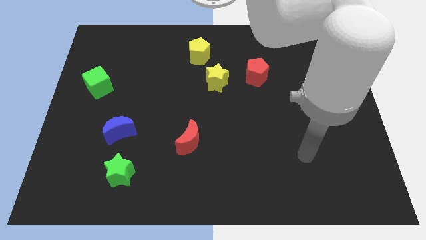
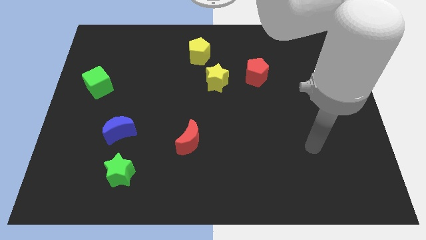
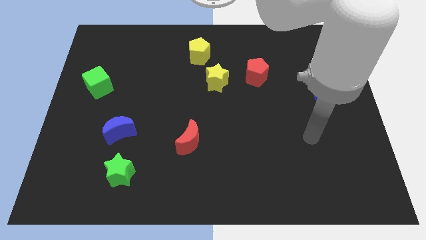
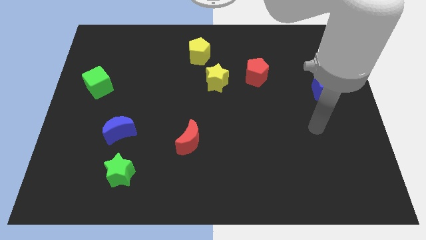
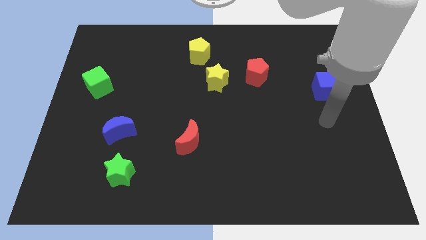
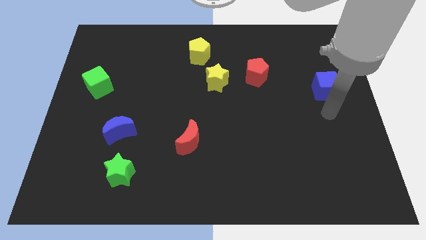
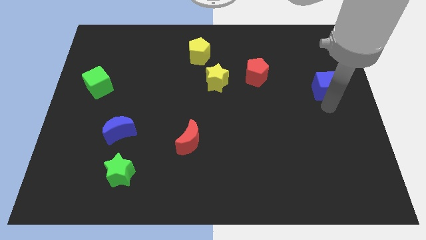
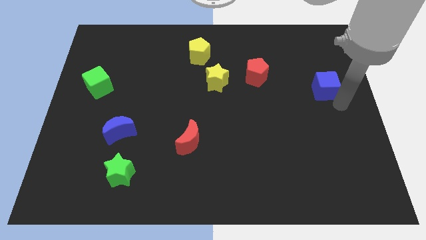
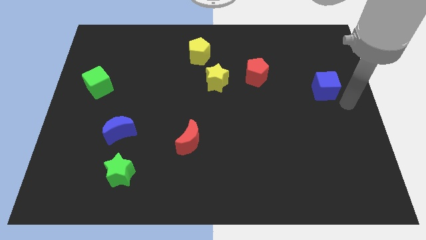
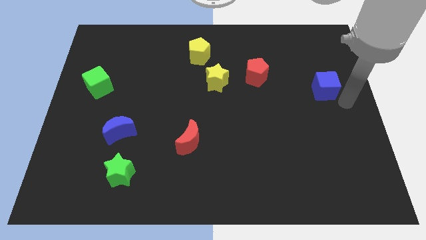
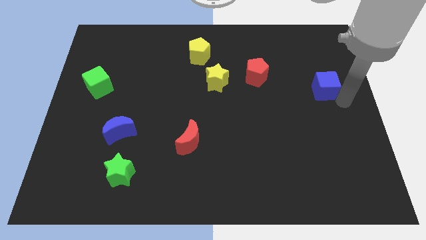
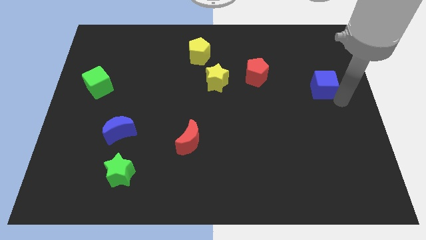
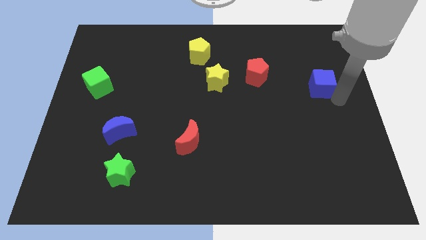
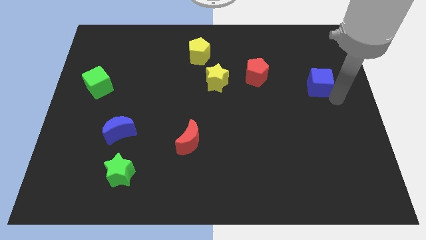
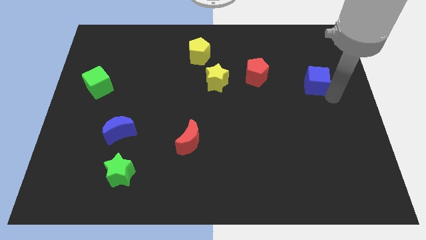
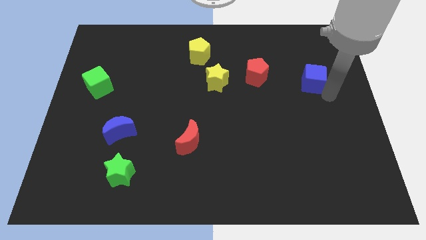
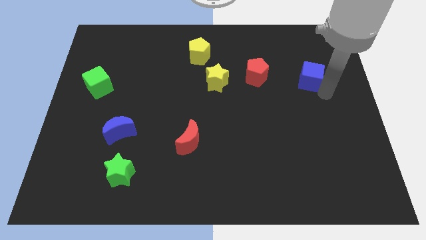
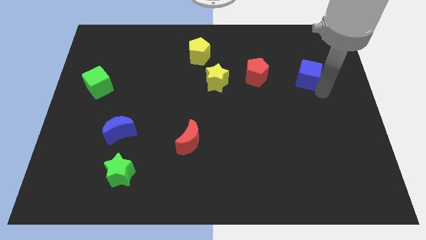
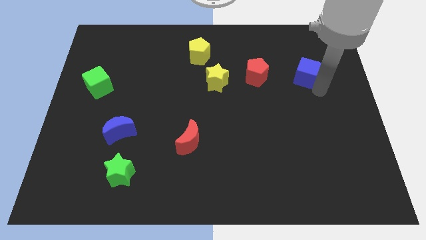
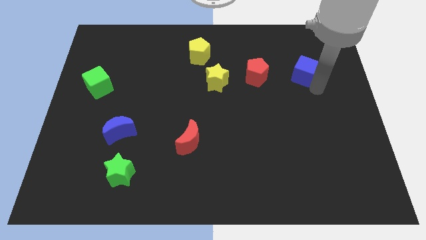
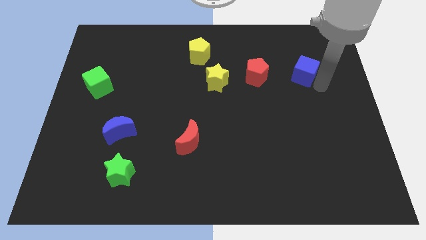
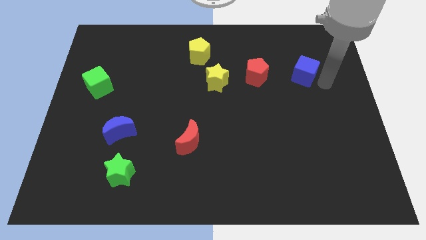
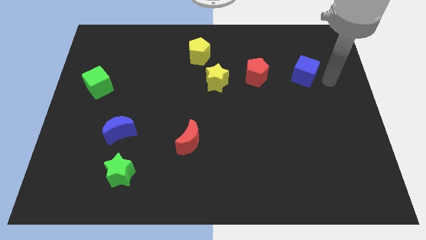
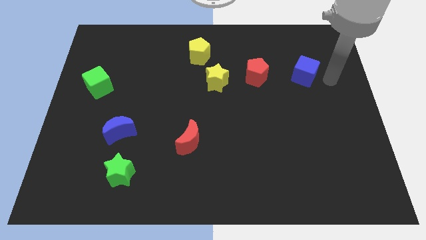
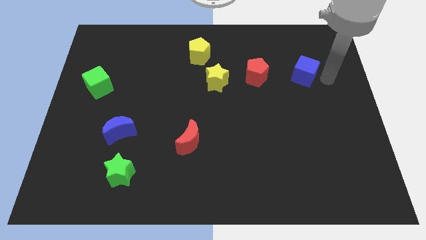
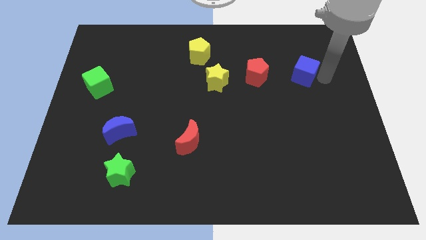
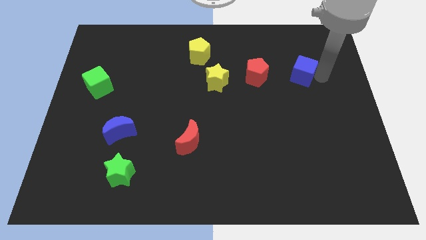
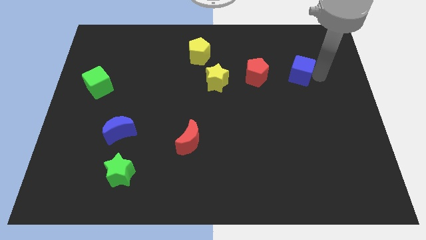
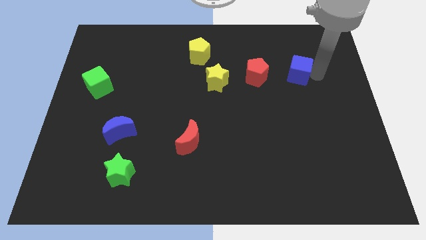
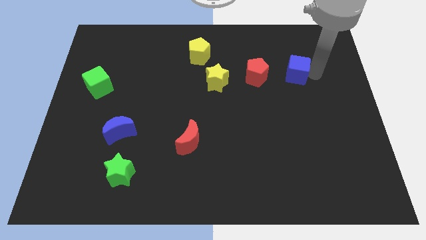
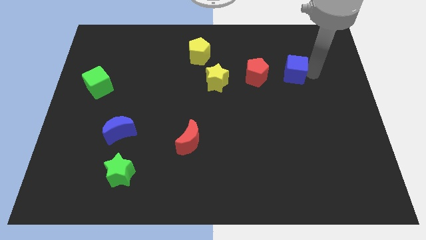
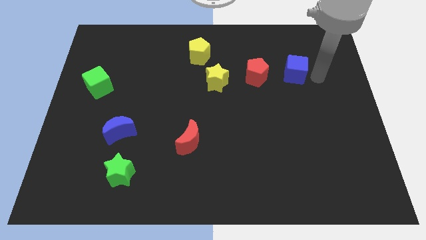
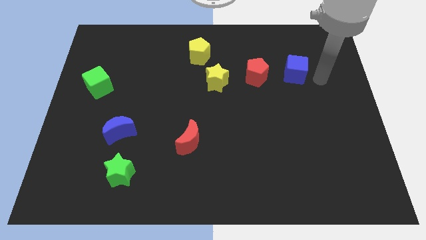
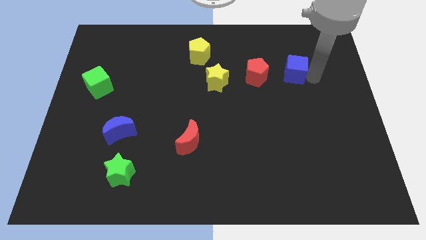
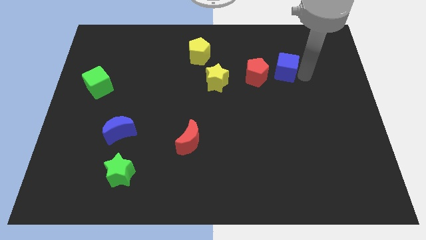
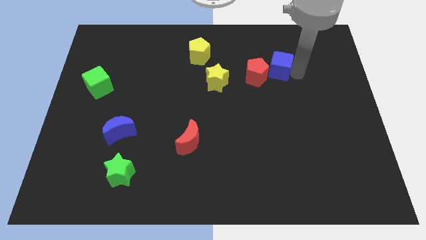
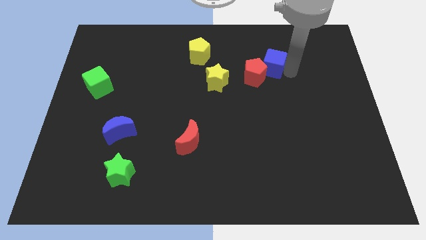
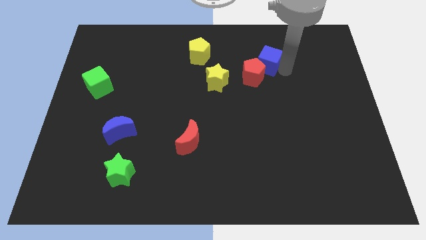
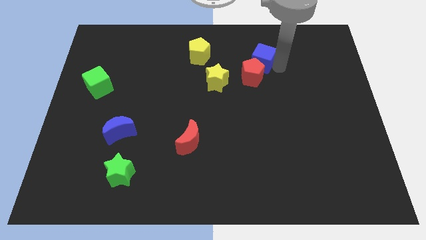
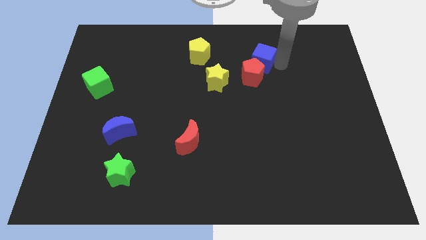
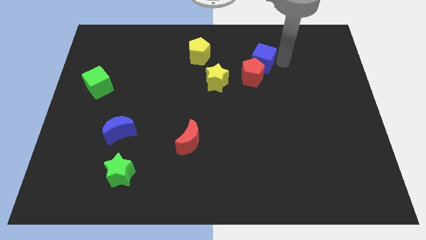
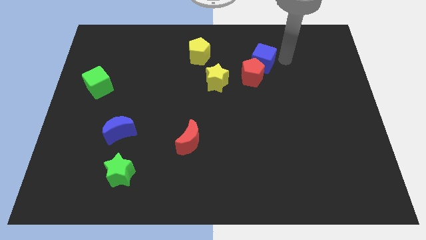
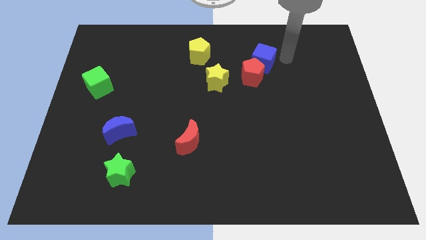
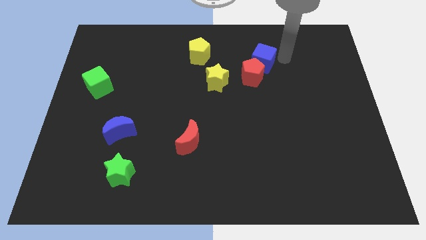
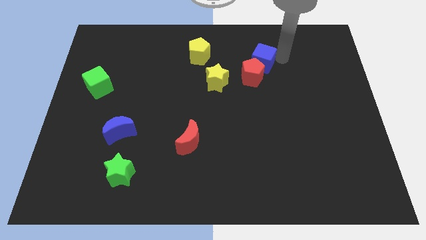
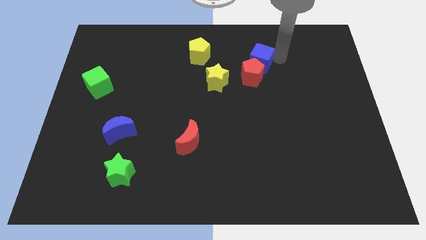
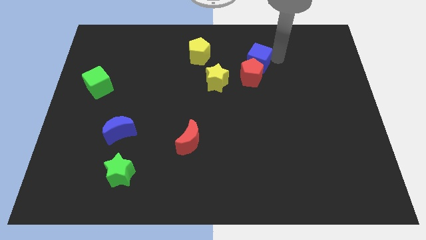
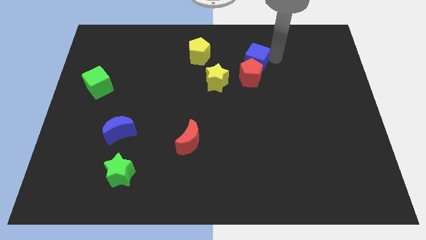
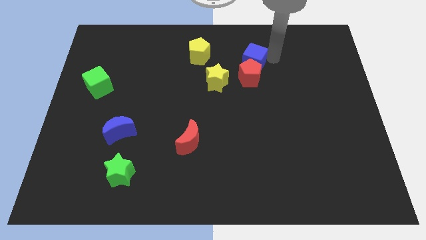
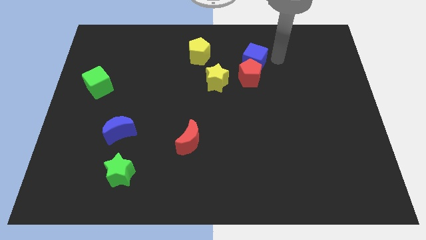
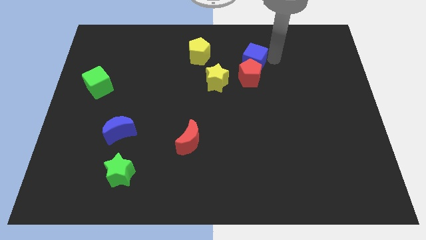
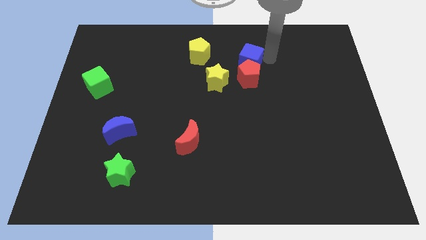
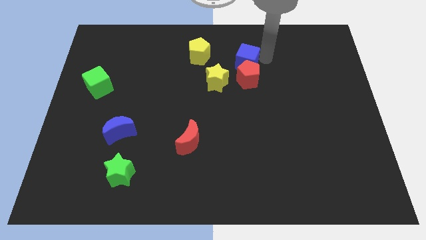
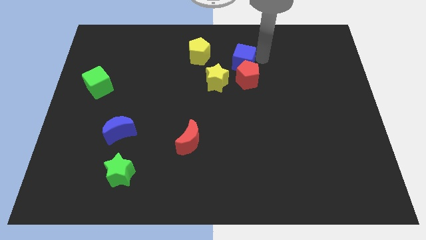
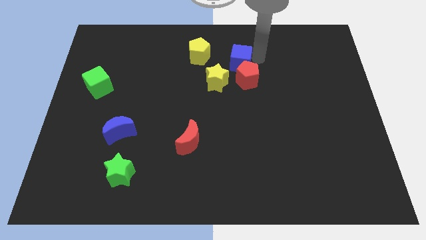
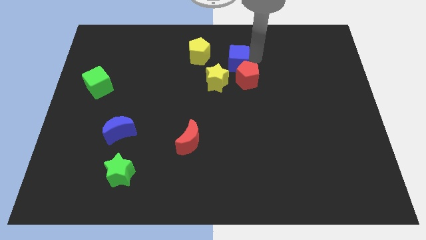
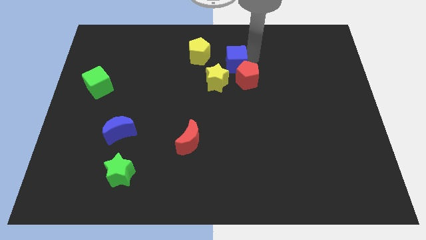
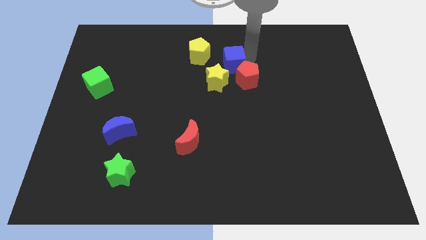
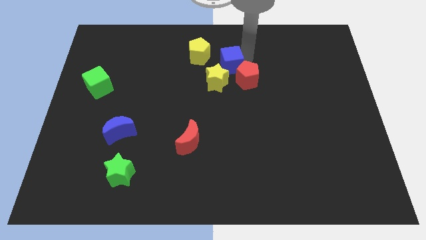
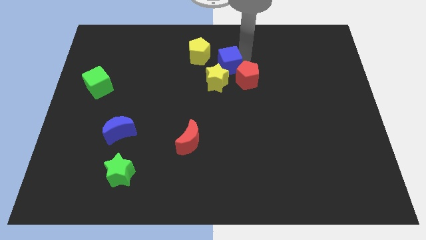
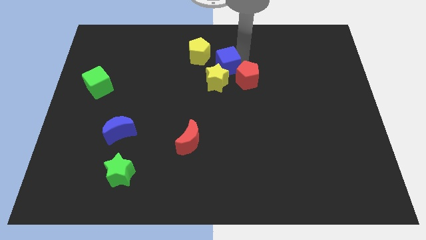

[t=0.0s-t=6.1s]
put the blue cube to the left side of the red pentagon
